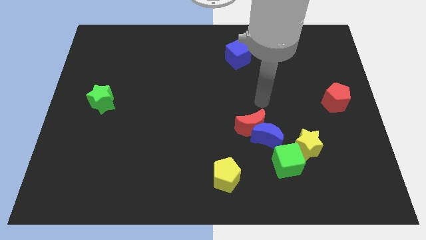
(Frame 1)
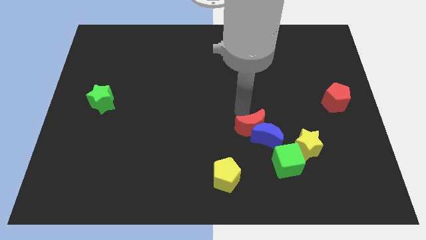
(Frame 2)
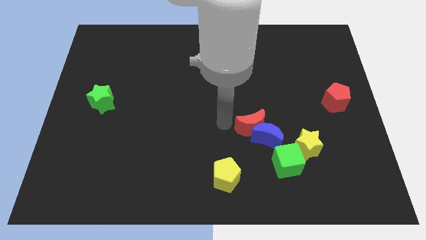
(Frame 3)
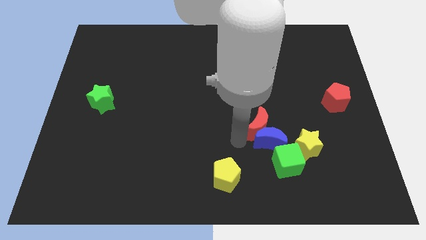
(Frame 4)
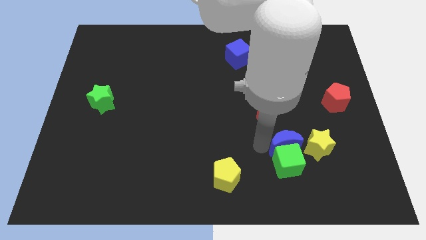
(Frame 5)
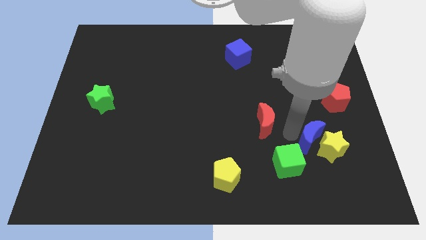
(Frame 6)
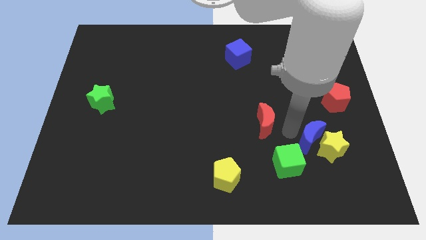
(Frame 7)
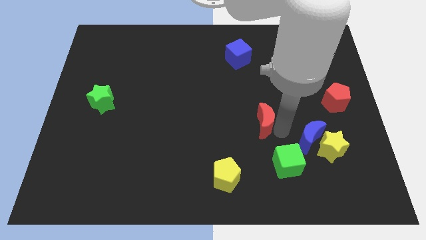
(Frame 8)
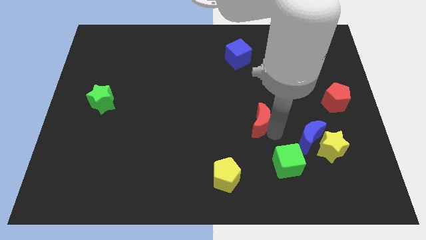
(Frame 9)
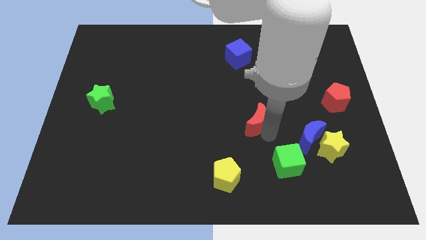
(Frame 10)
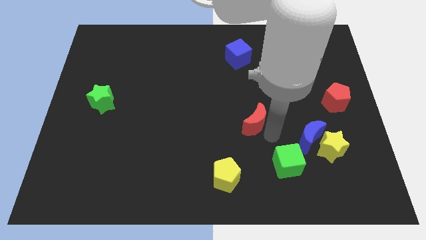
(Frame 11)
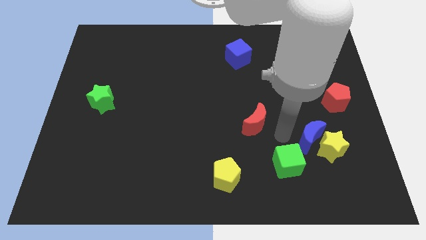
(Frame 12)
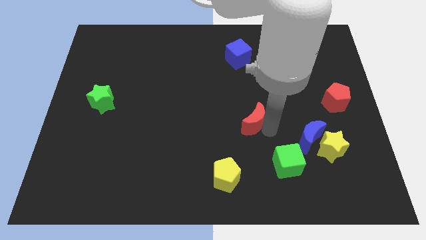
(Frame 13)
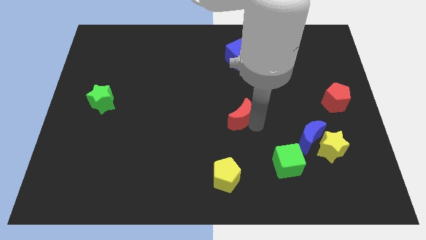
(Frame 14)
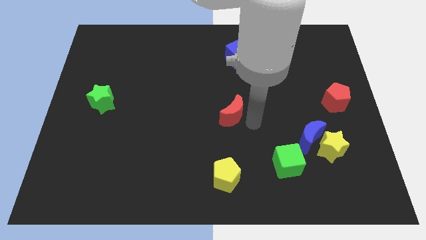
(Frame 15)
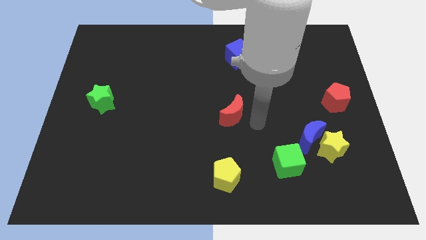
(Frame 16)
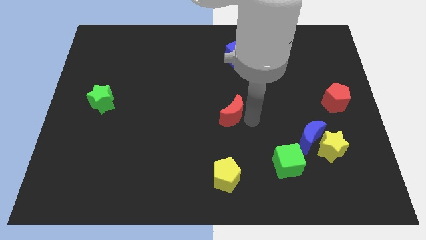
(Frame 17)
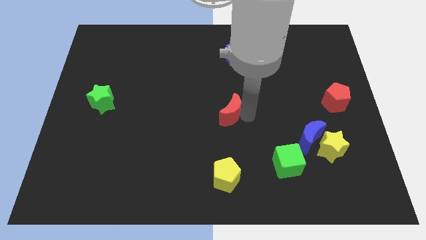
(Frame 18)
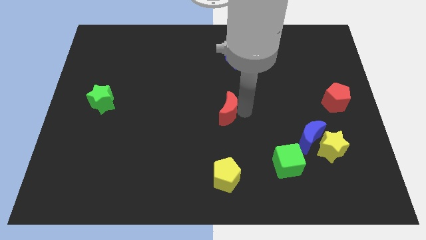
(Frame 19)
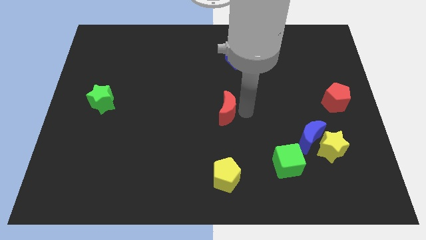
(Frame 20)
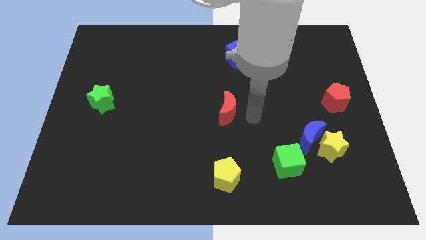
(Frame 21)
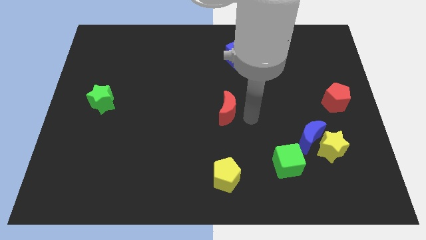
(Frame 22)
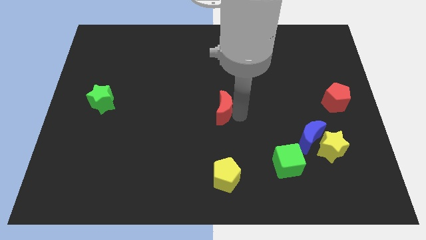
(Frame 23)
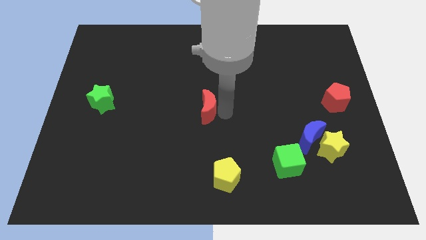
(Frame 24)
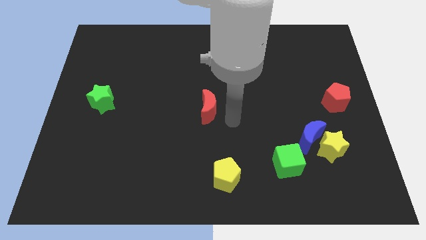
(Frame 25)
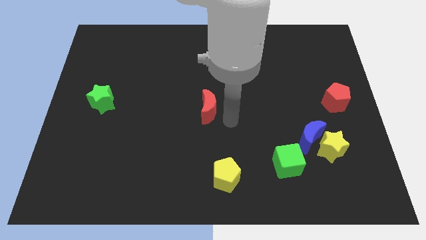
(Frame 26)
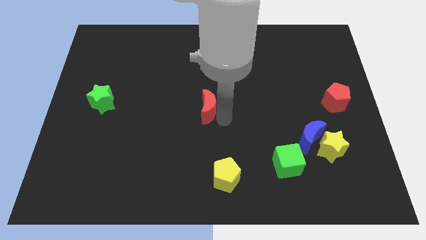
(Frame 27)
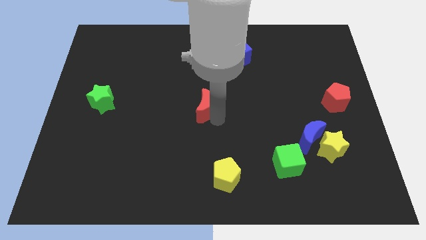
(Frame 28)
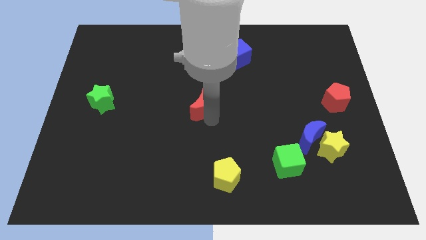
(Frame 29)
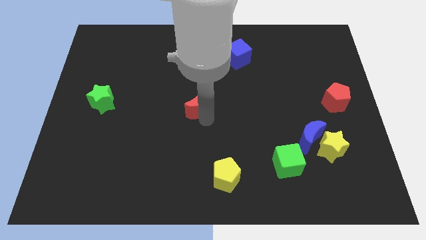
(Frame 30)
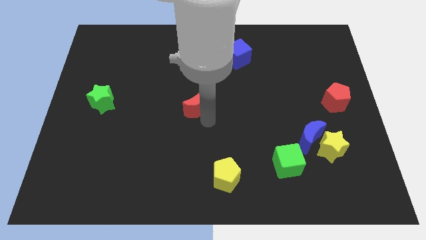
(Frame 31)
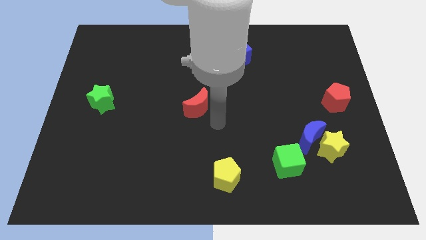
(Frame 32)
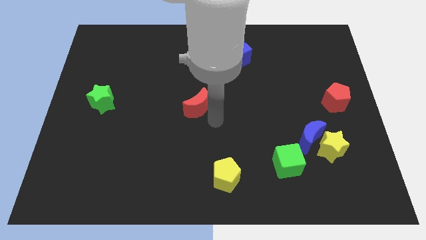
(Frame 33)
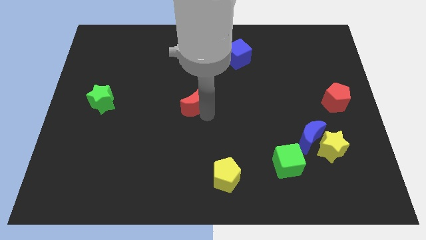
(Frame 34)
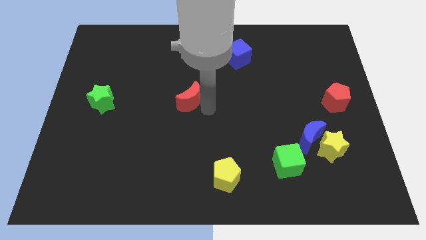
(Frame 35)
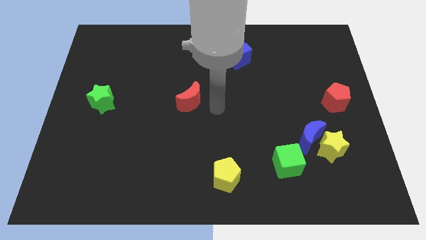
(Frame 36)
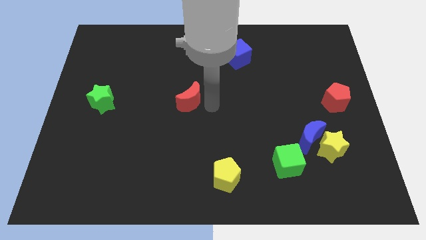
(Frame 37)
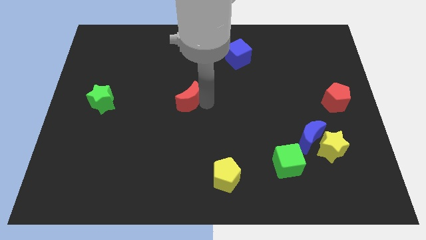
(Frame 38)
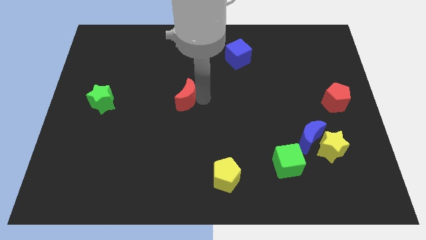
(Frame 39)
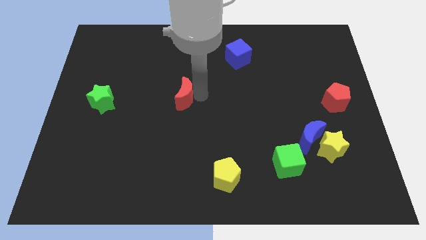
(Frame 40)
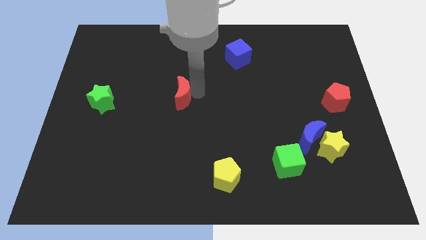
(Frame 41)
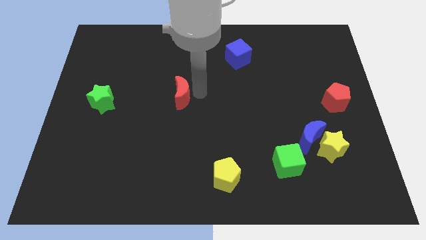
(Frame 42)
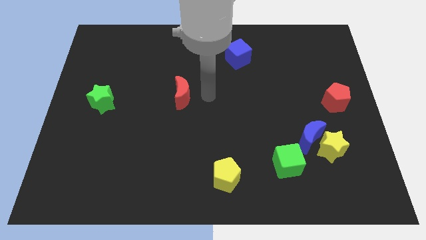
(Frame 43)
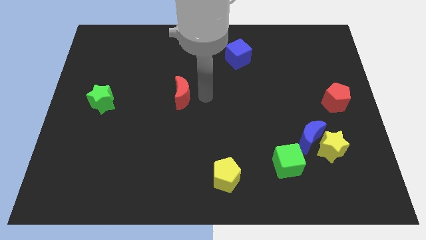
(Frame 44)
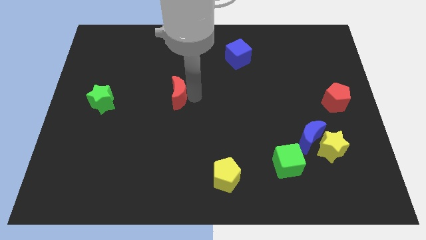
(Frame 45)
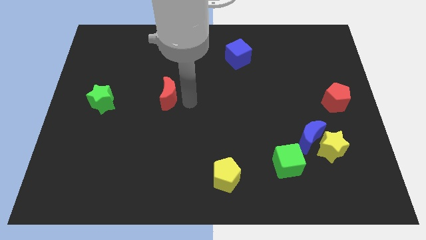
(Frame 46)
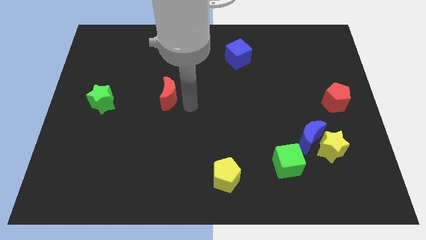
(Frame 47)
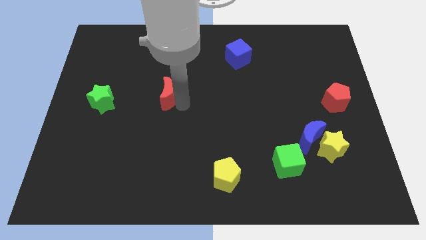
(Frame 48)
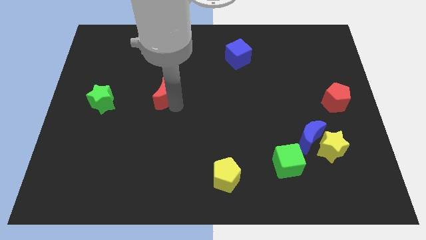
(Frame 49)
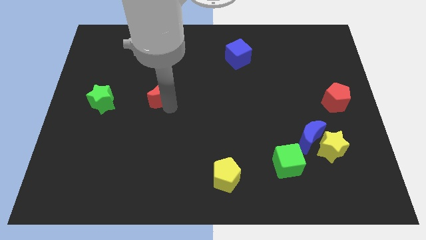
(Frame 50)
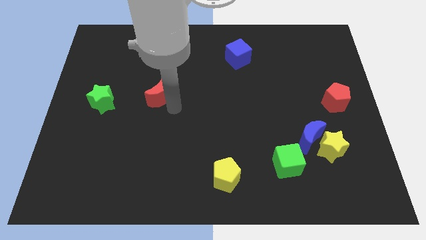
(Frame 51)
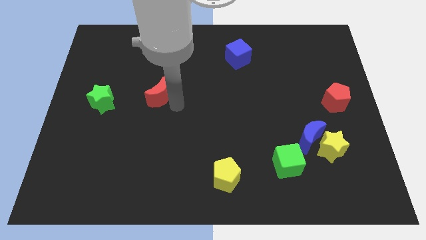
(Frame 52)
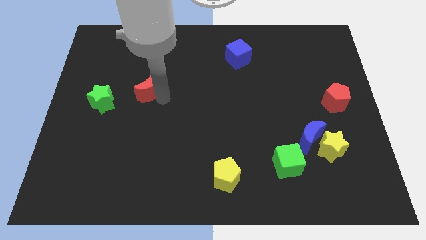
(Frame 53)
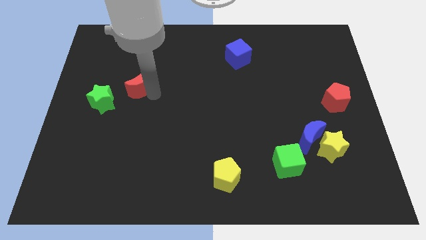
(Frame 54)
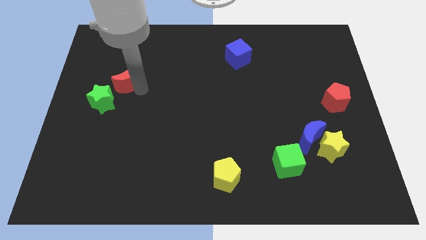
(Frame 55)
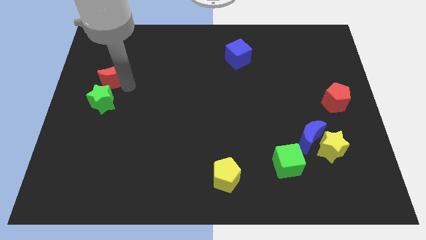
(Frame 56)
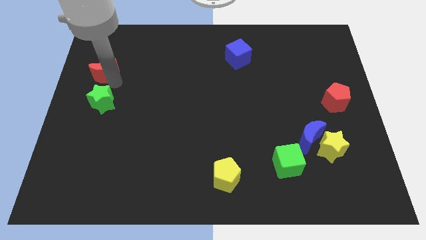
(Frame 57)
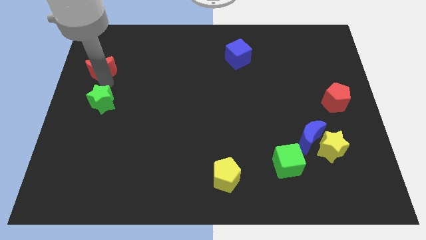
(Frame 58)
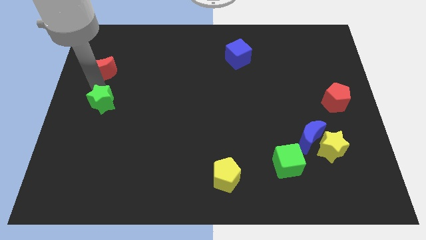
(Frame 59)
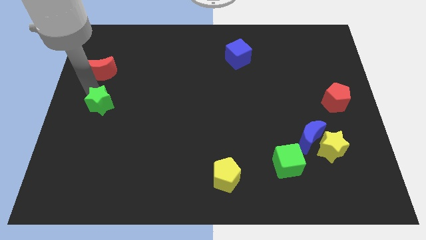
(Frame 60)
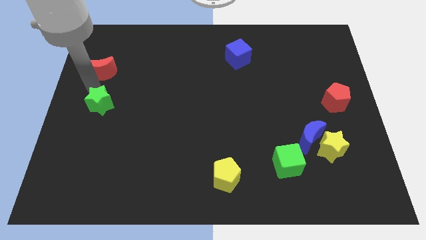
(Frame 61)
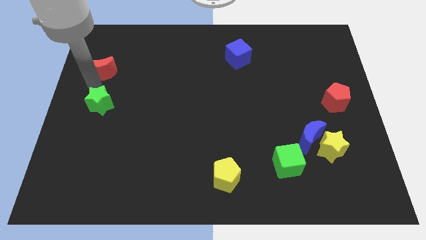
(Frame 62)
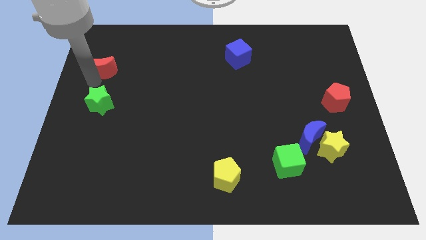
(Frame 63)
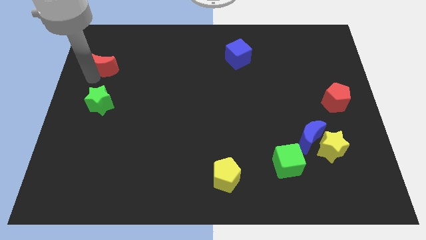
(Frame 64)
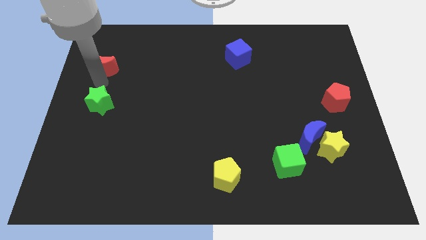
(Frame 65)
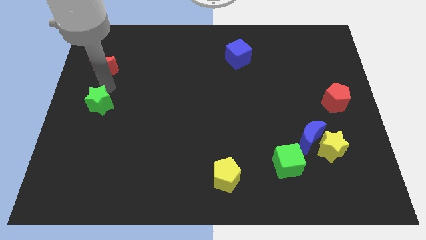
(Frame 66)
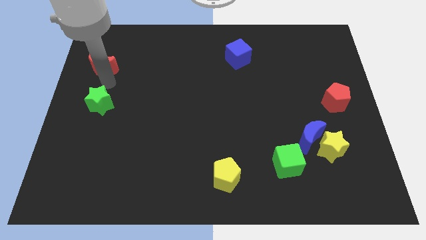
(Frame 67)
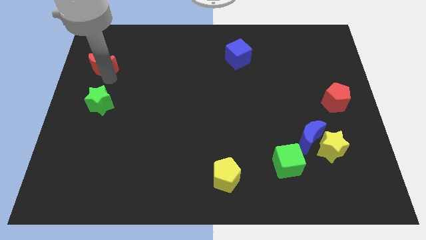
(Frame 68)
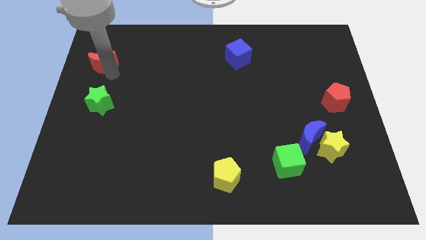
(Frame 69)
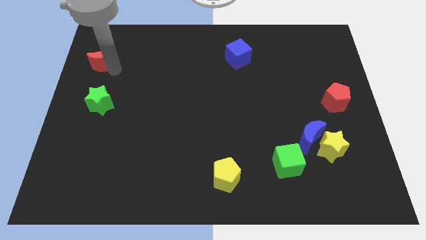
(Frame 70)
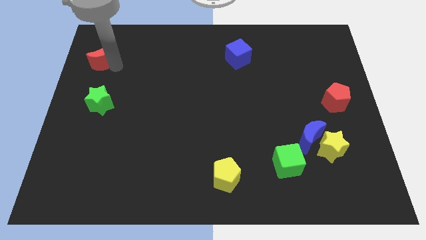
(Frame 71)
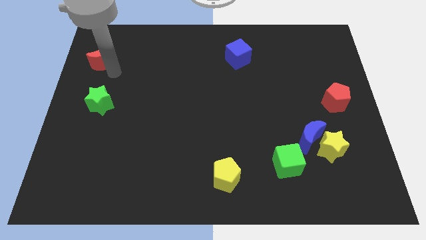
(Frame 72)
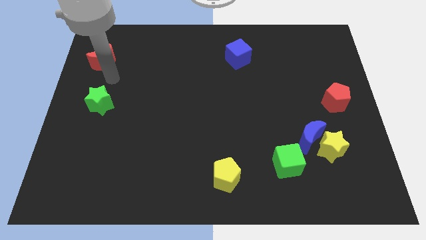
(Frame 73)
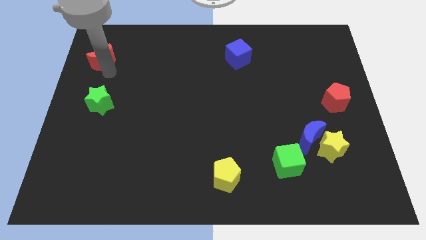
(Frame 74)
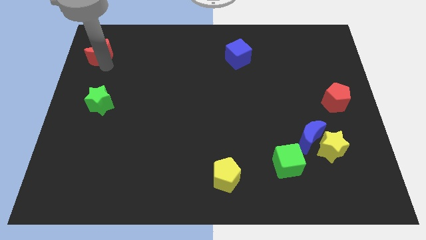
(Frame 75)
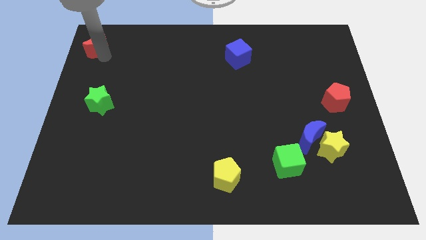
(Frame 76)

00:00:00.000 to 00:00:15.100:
move the red moon to the top left
